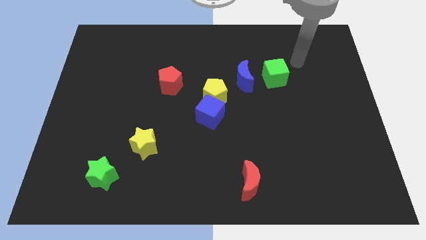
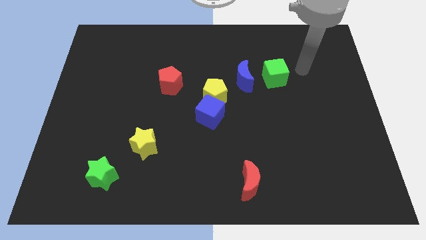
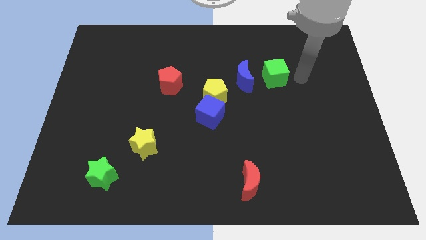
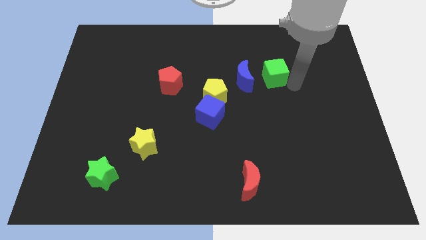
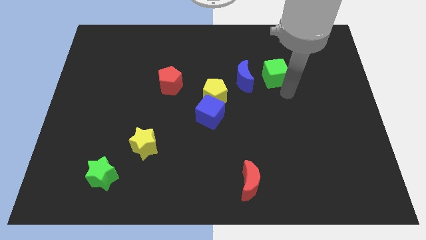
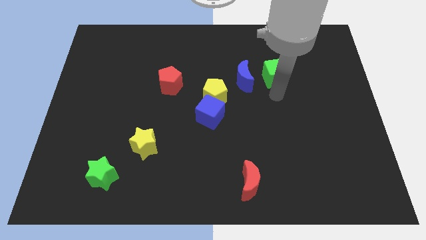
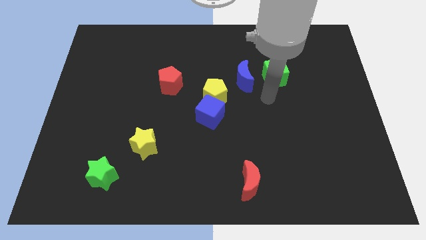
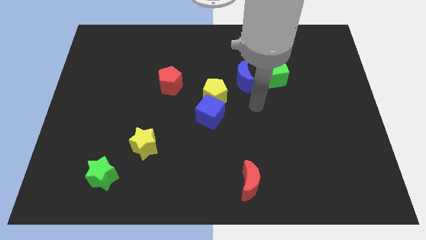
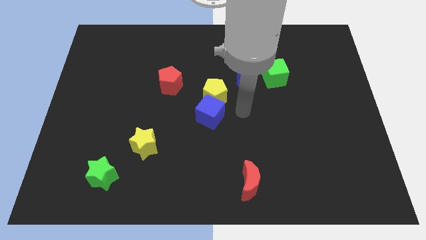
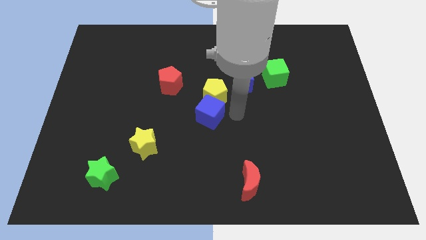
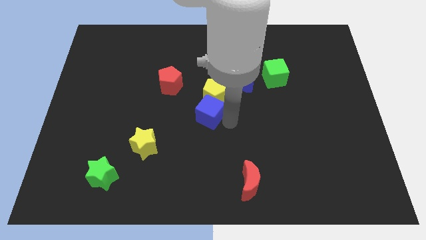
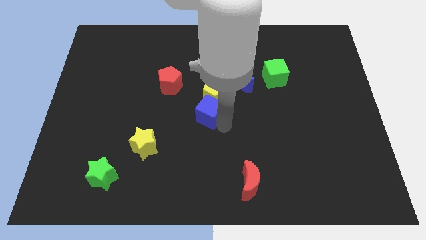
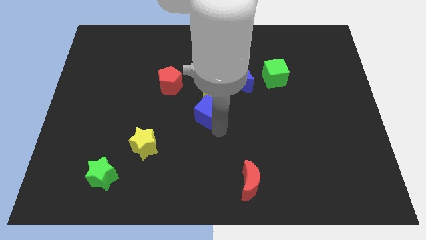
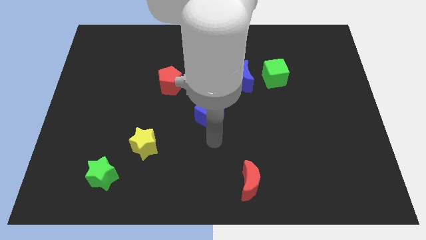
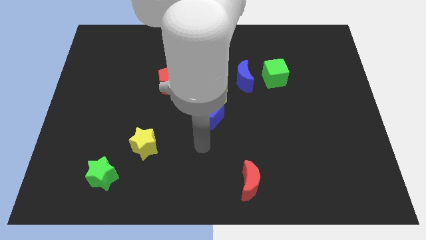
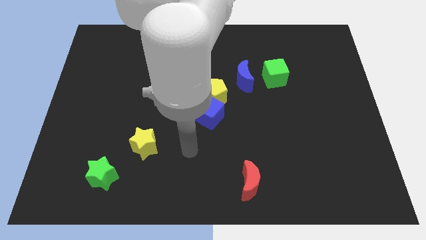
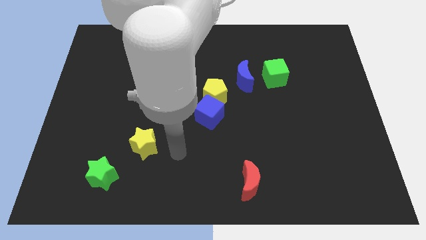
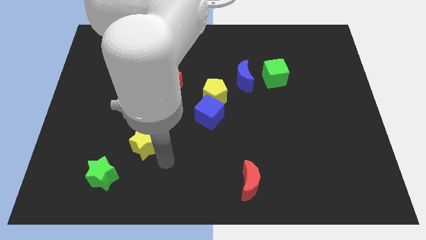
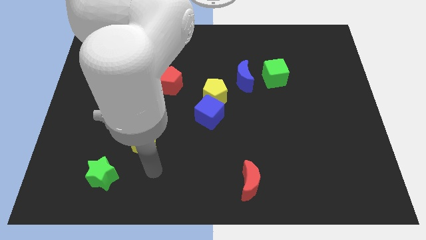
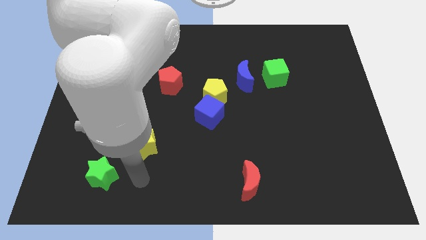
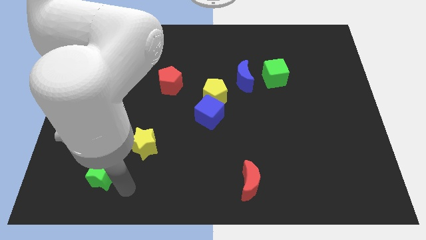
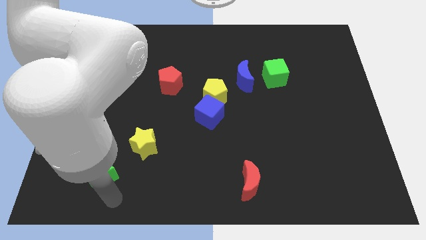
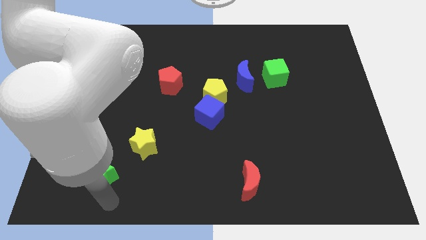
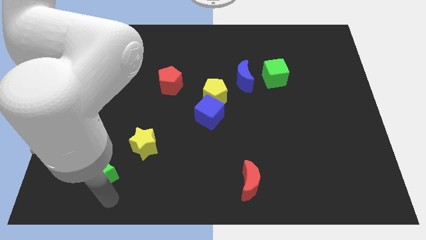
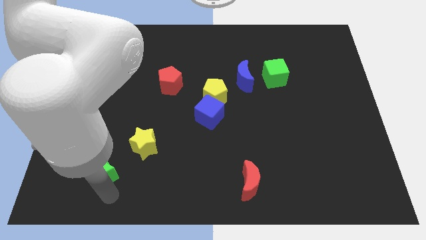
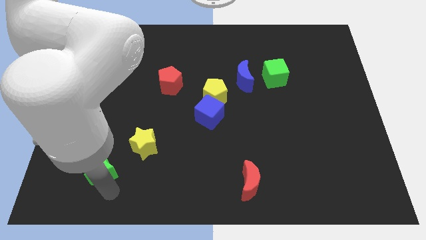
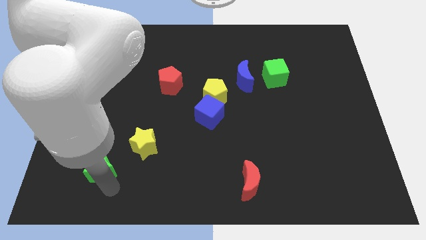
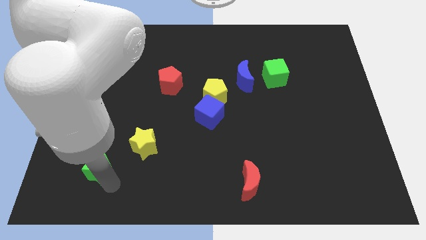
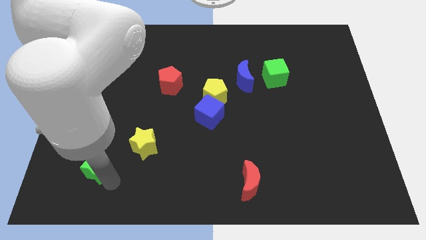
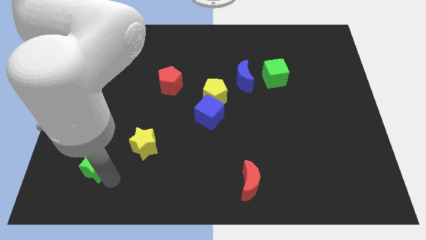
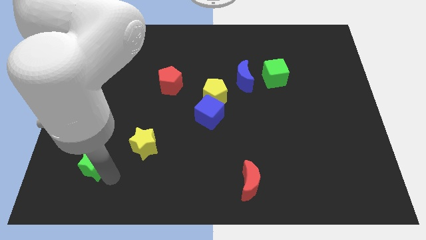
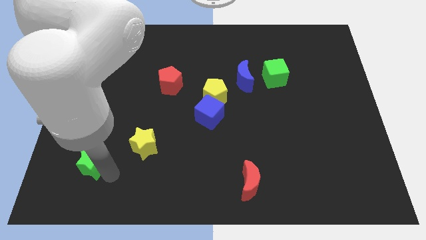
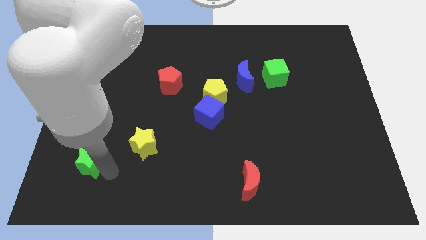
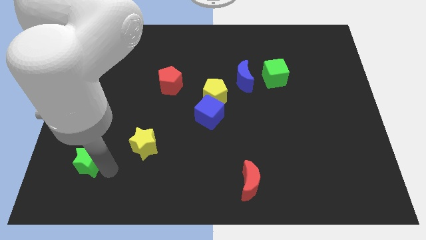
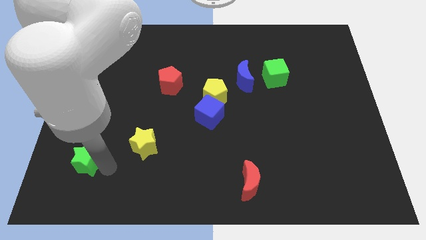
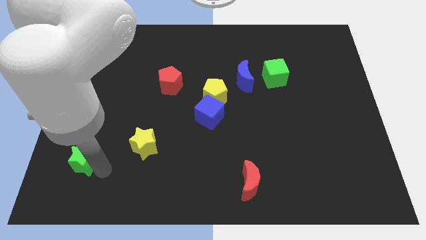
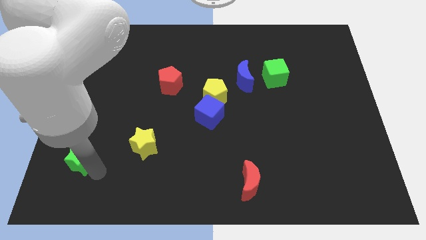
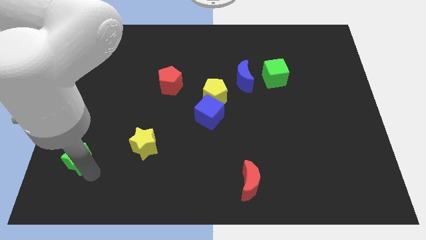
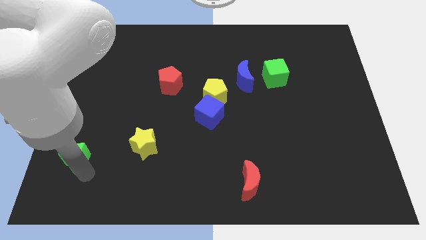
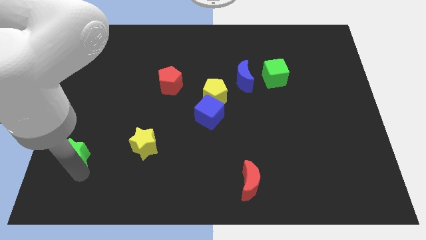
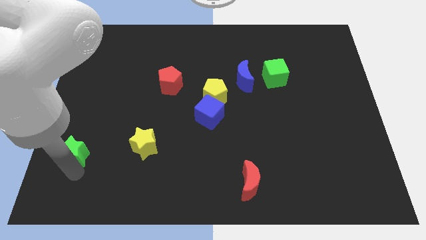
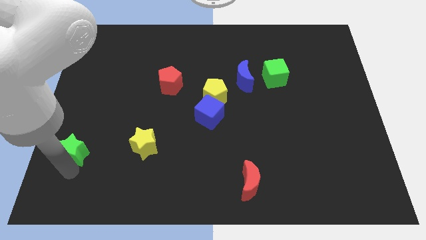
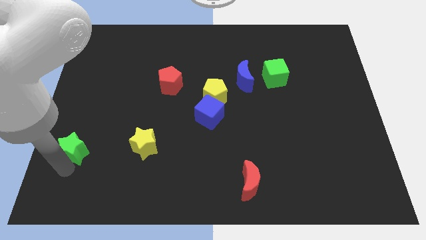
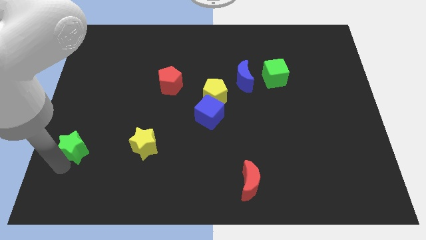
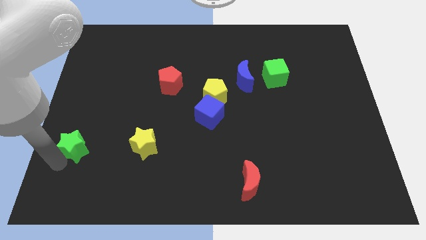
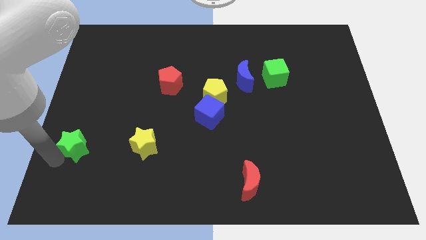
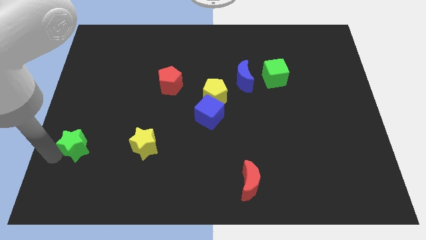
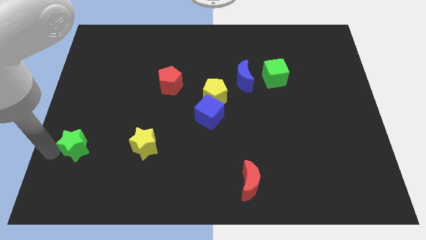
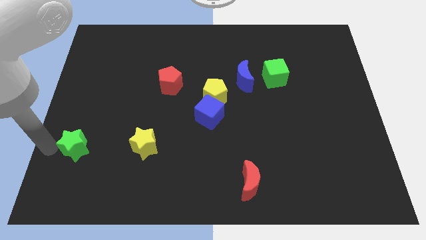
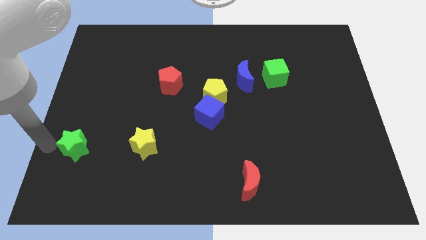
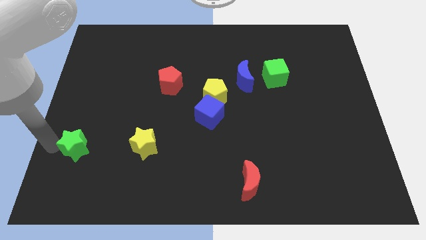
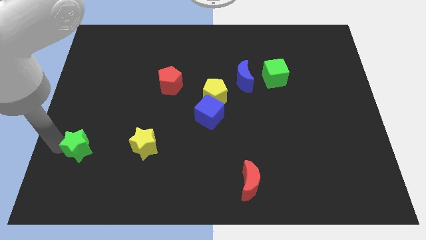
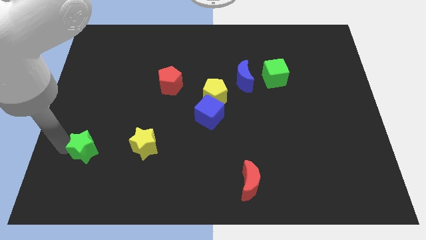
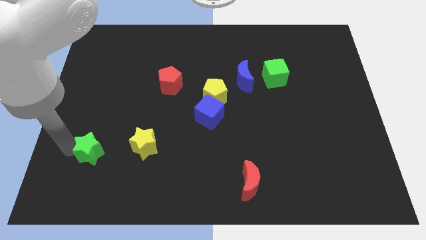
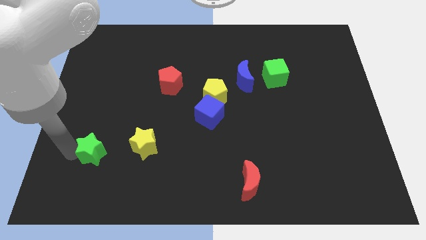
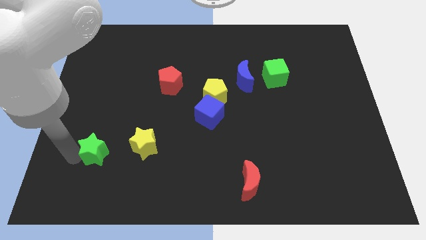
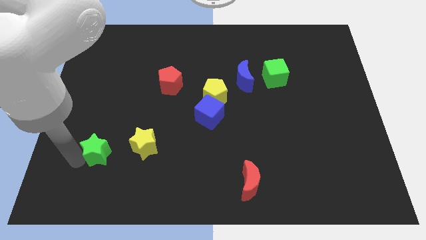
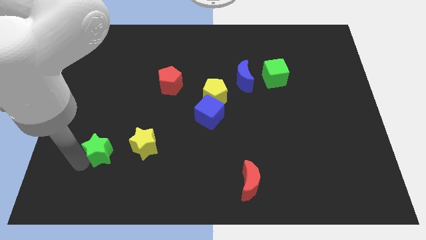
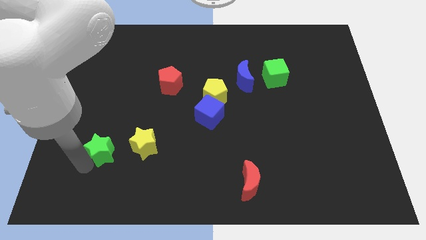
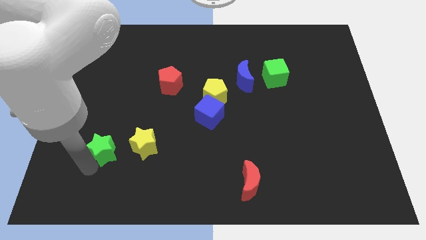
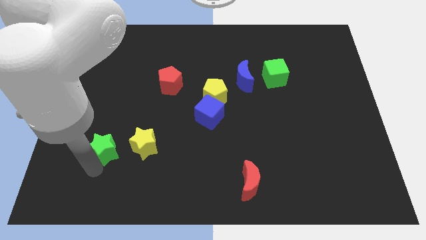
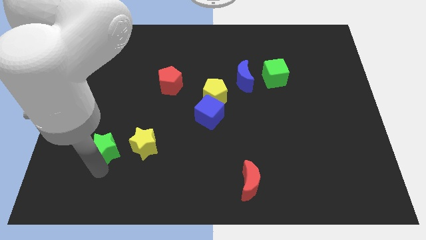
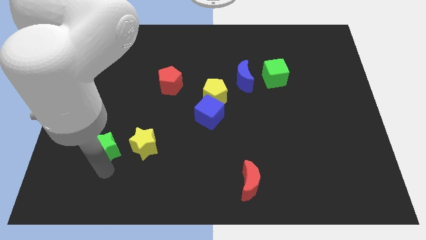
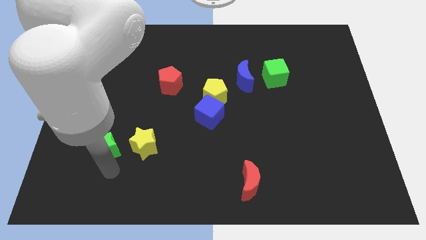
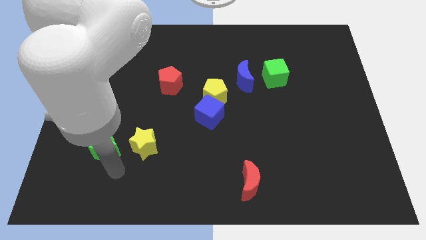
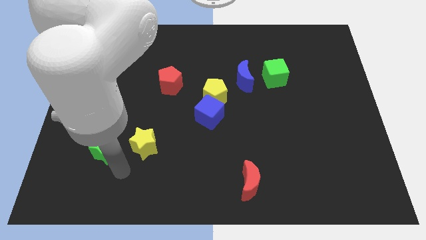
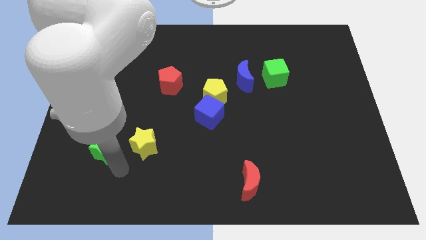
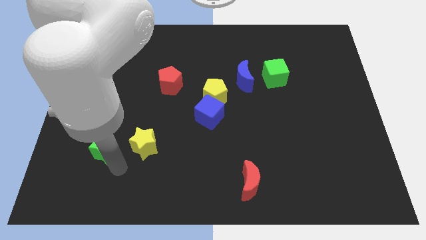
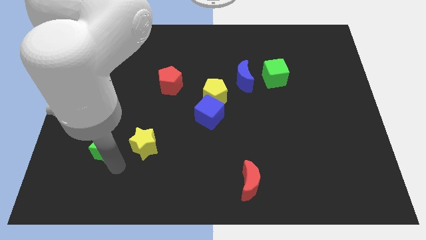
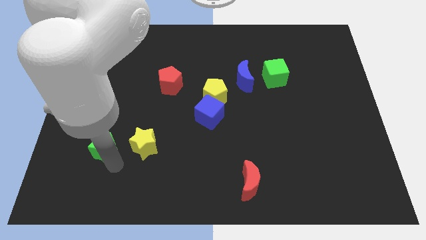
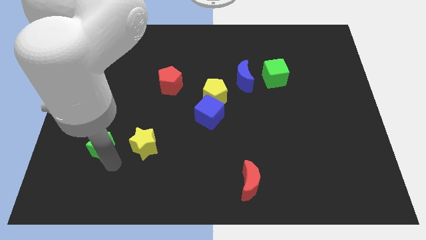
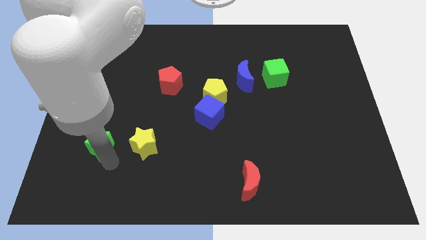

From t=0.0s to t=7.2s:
slightly push the green star upwards

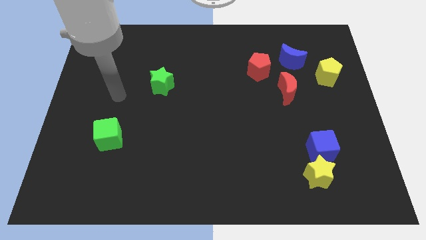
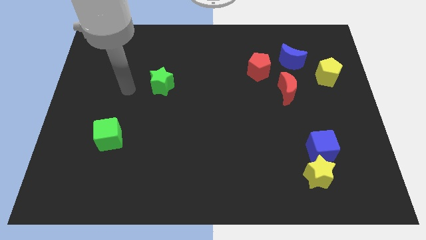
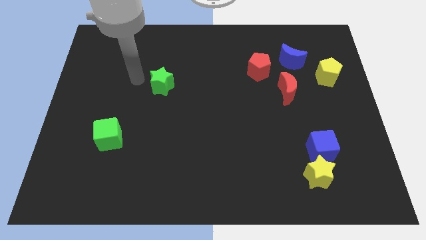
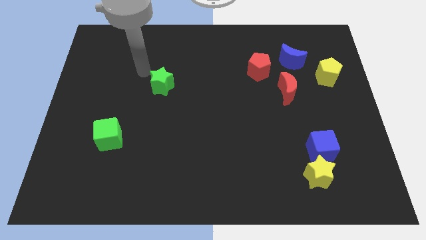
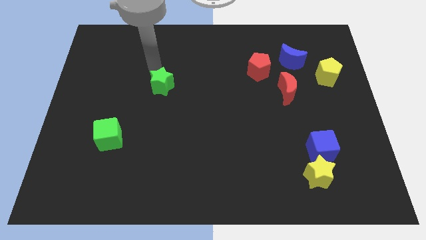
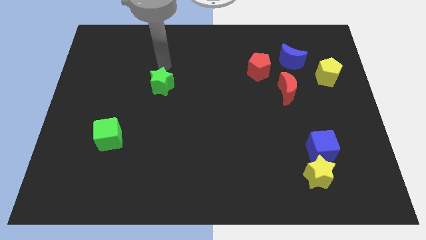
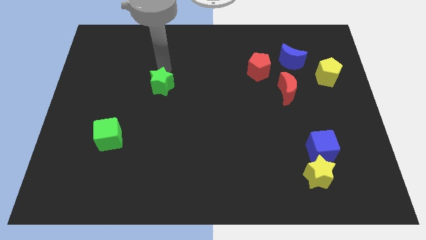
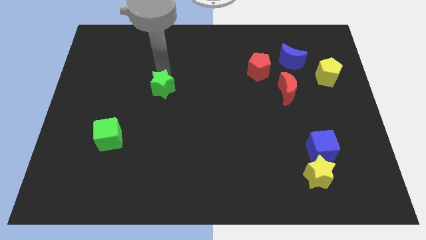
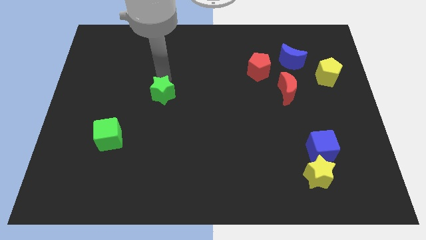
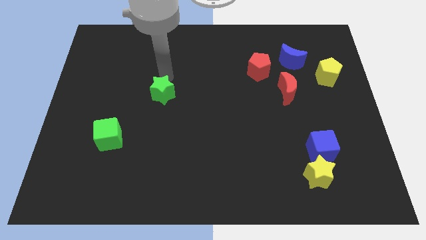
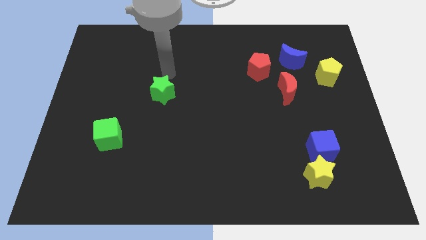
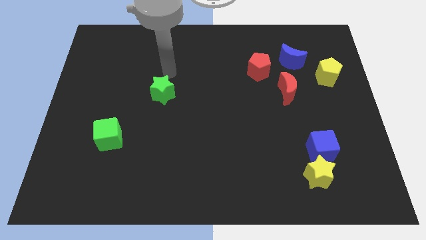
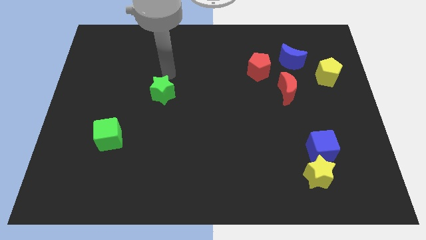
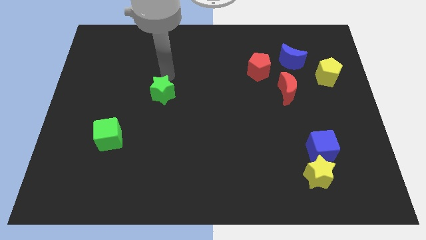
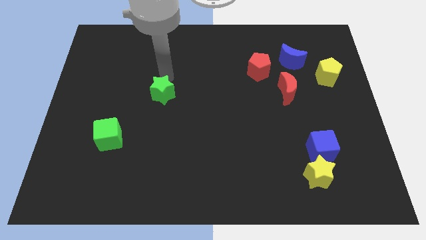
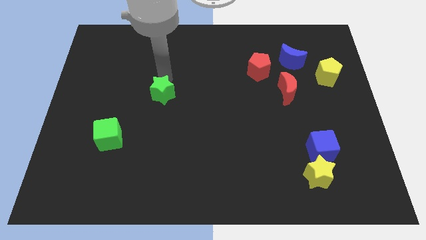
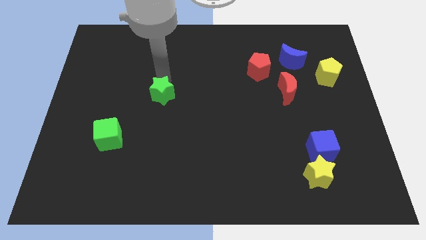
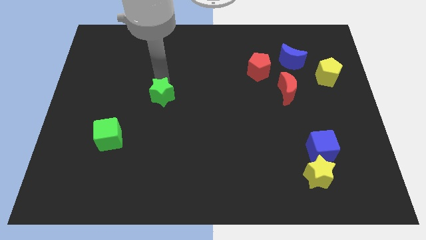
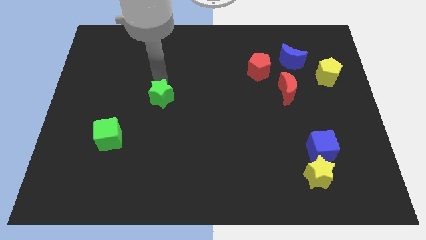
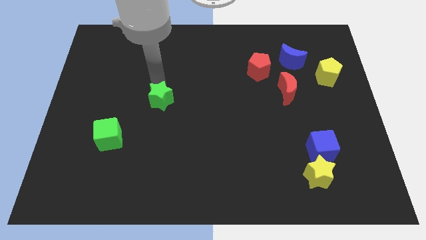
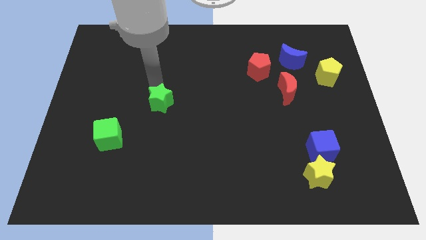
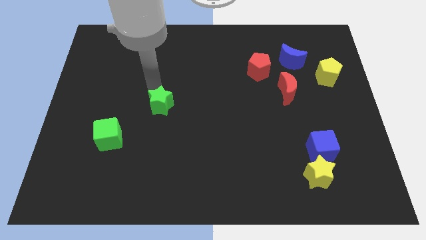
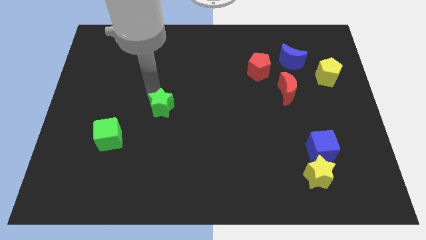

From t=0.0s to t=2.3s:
push the green star downwards a little bit
